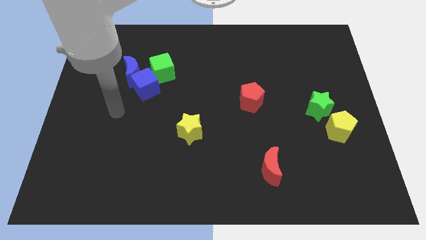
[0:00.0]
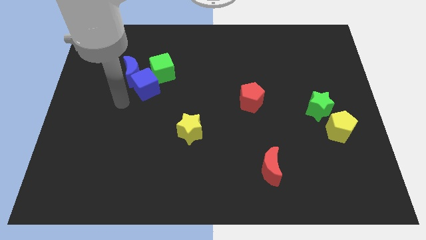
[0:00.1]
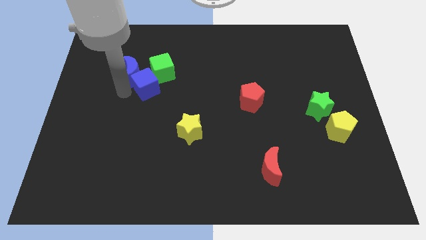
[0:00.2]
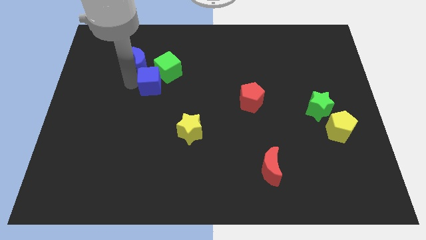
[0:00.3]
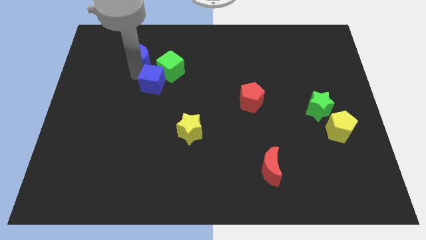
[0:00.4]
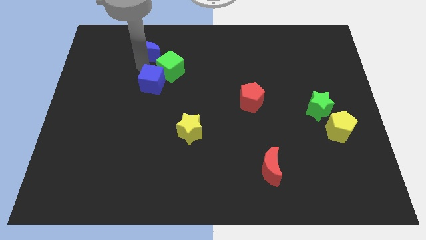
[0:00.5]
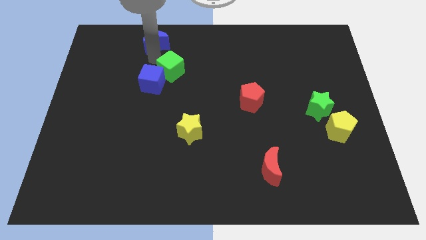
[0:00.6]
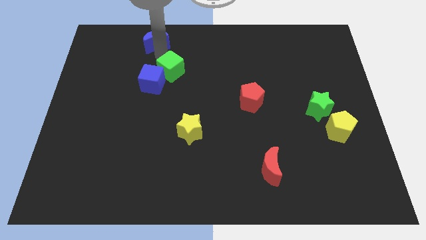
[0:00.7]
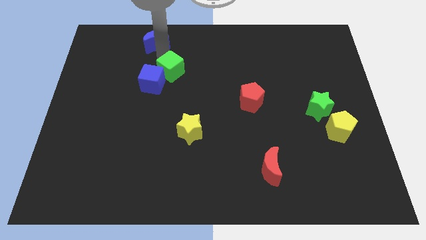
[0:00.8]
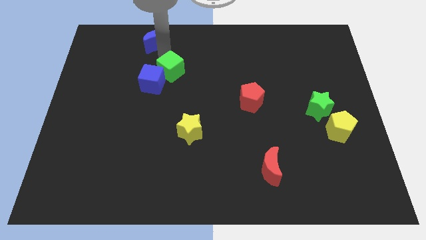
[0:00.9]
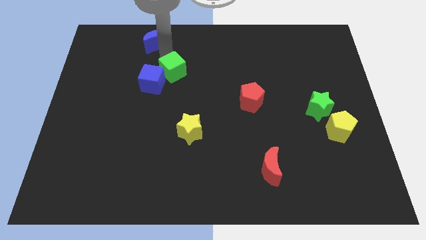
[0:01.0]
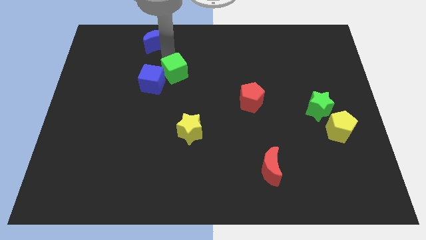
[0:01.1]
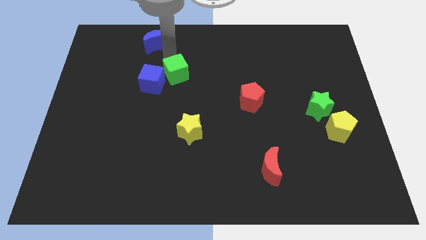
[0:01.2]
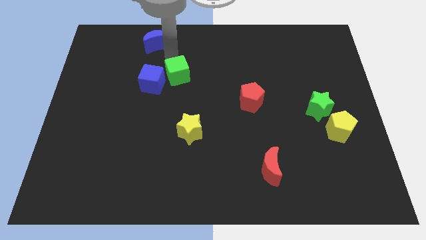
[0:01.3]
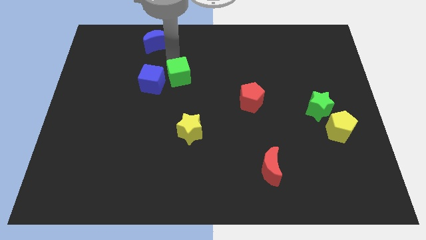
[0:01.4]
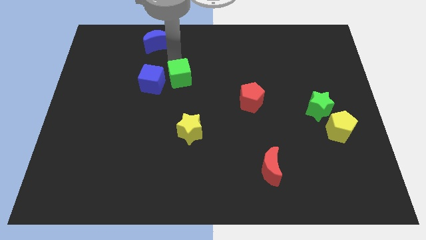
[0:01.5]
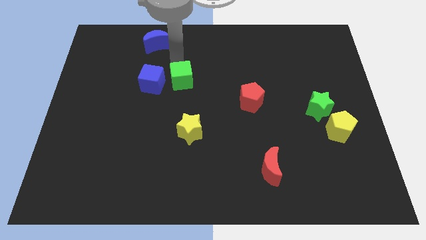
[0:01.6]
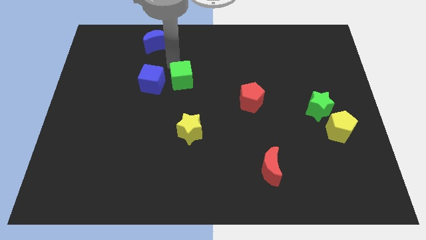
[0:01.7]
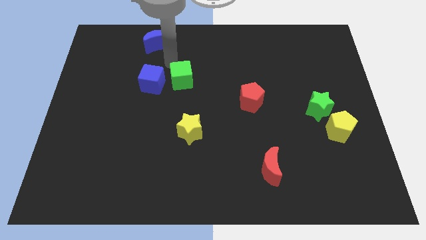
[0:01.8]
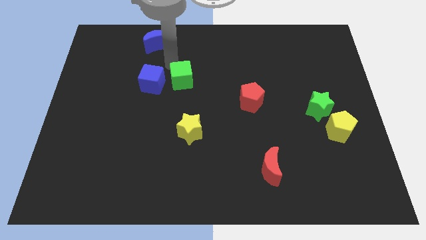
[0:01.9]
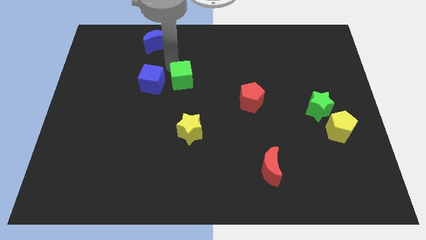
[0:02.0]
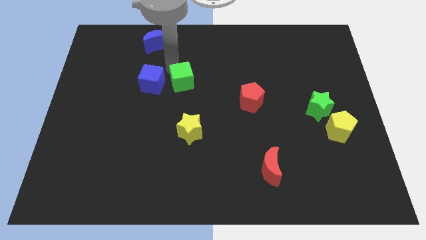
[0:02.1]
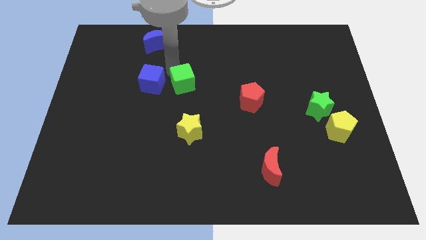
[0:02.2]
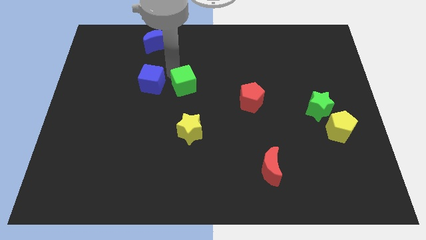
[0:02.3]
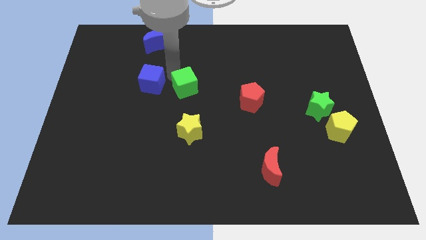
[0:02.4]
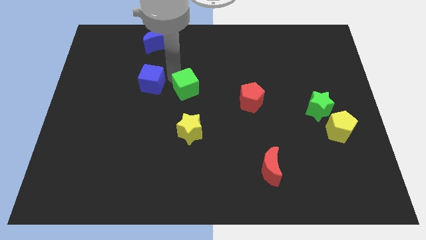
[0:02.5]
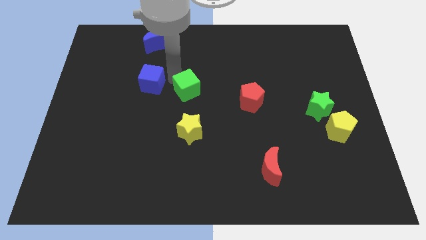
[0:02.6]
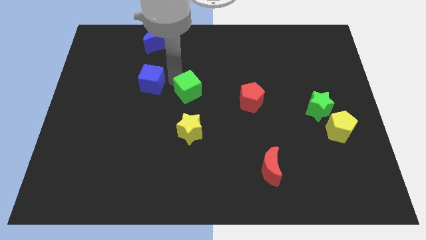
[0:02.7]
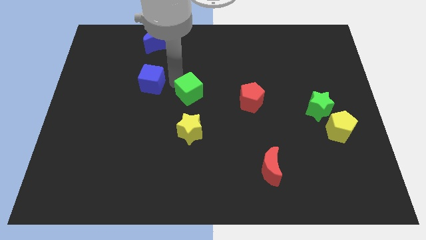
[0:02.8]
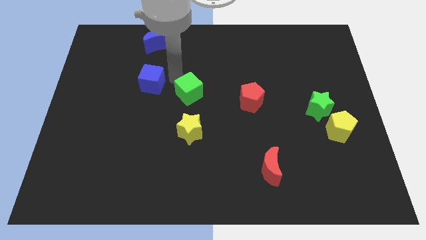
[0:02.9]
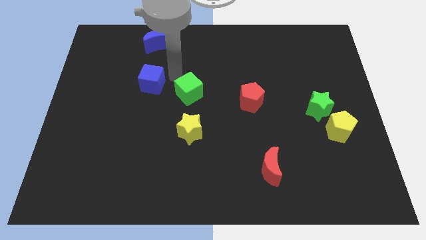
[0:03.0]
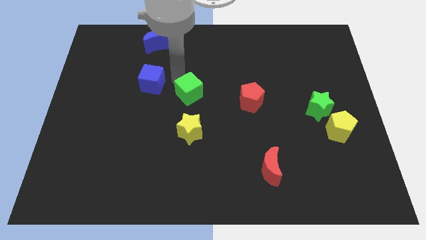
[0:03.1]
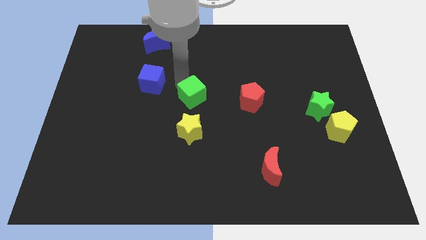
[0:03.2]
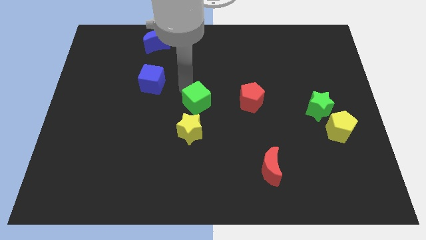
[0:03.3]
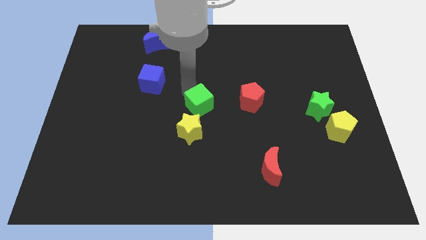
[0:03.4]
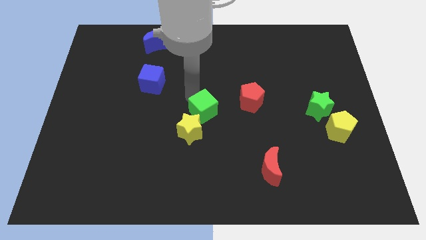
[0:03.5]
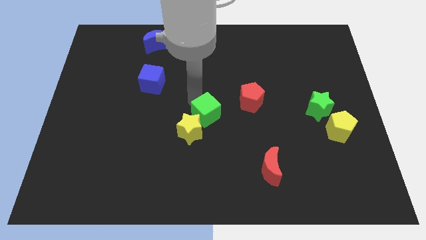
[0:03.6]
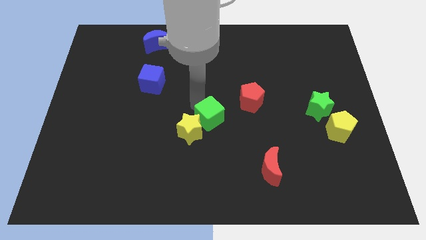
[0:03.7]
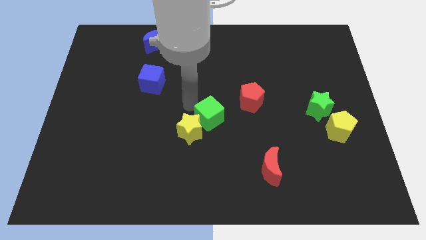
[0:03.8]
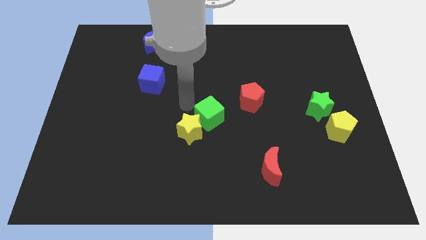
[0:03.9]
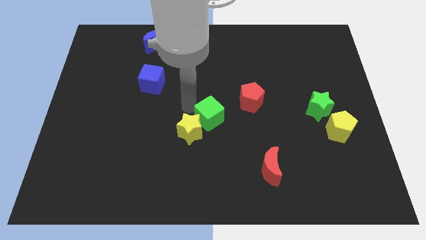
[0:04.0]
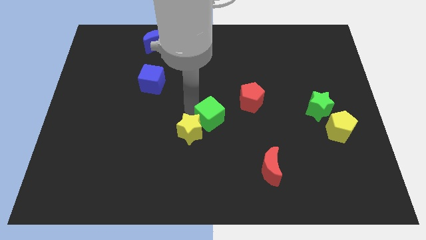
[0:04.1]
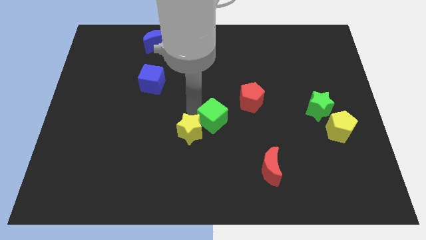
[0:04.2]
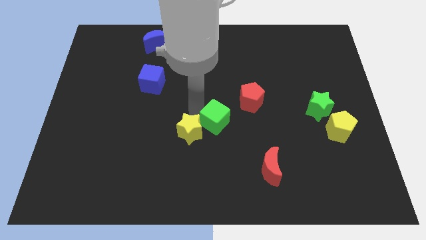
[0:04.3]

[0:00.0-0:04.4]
move the green cube downwards and then right

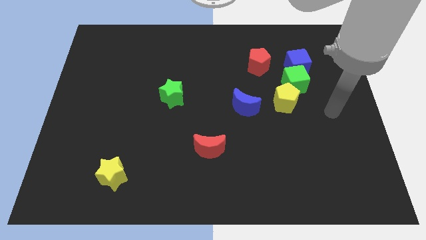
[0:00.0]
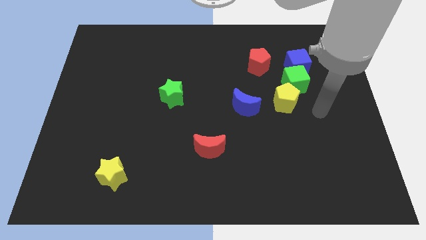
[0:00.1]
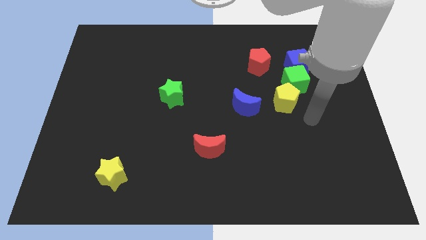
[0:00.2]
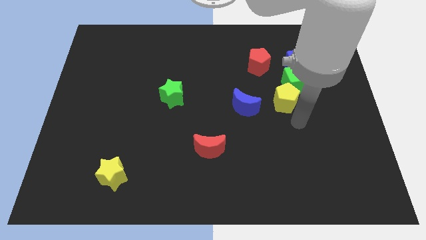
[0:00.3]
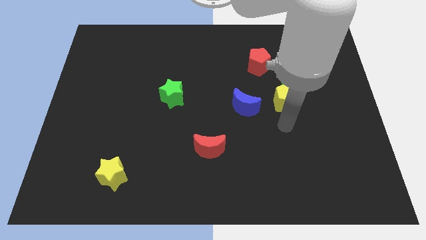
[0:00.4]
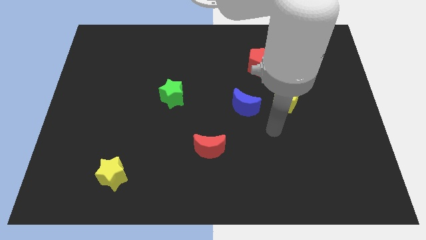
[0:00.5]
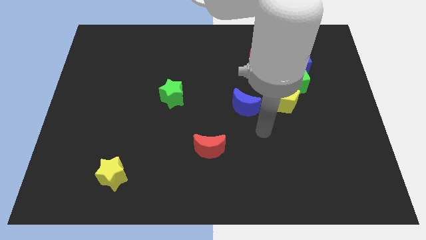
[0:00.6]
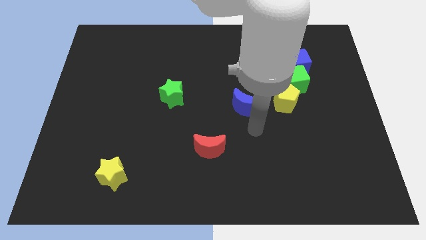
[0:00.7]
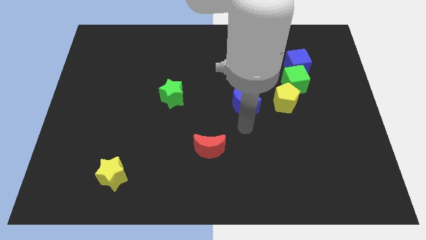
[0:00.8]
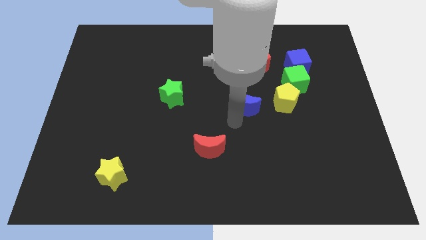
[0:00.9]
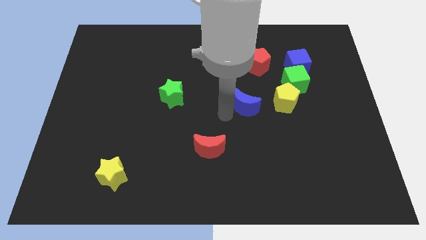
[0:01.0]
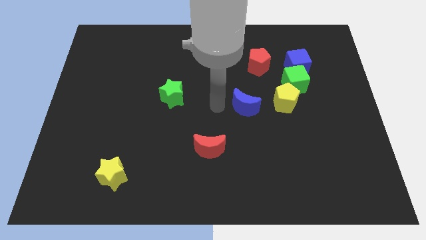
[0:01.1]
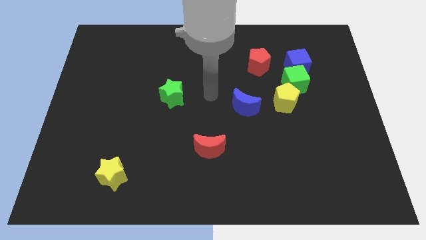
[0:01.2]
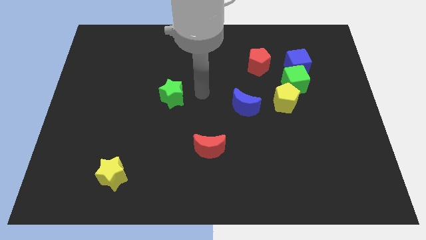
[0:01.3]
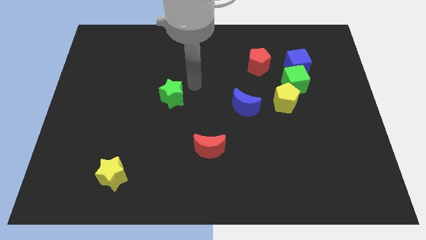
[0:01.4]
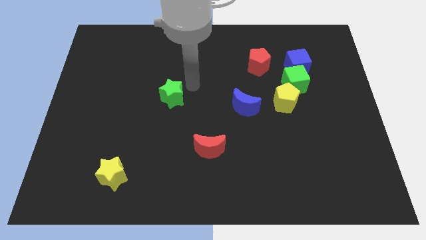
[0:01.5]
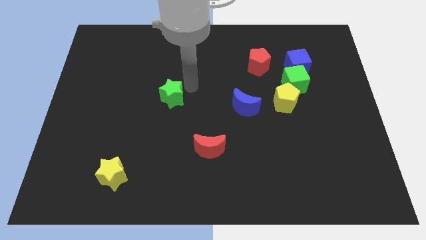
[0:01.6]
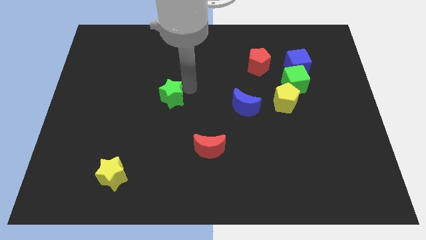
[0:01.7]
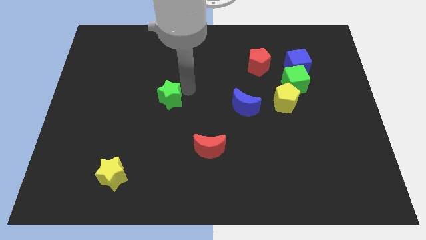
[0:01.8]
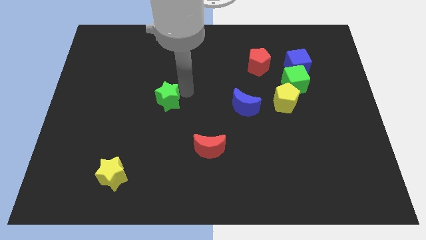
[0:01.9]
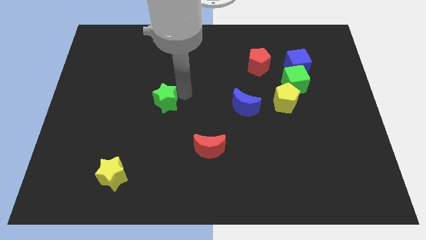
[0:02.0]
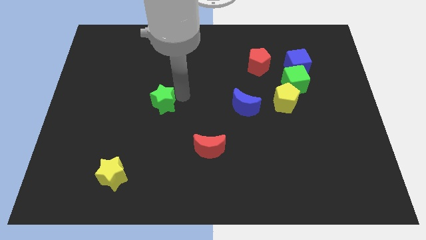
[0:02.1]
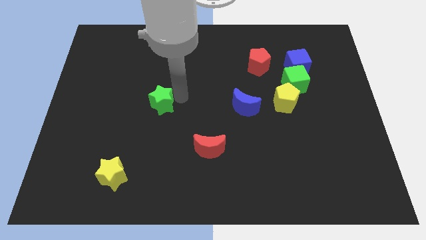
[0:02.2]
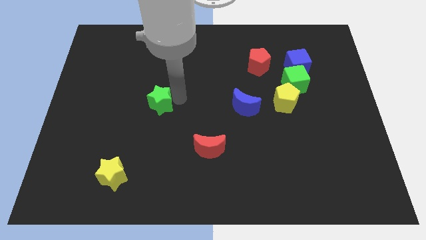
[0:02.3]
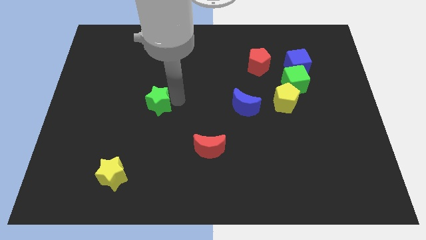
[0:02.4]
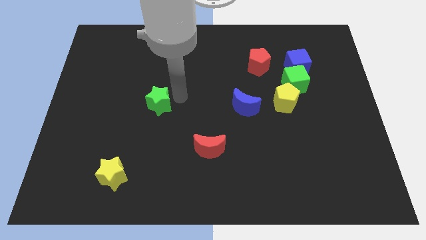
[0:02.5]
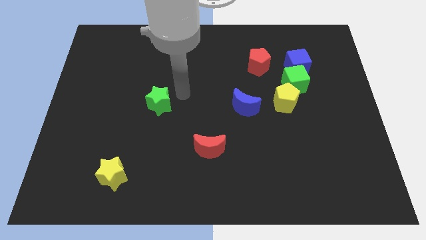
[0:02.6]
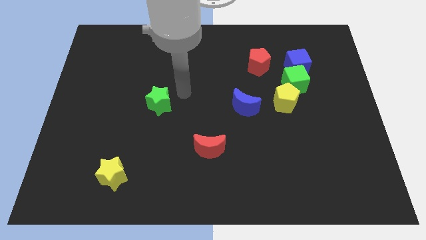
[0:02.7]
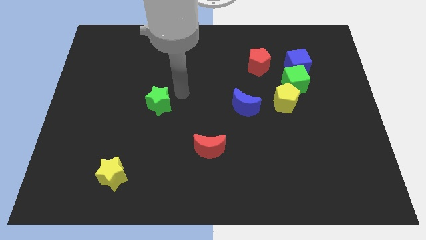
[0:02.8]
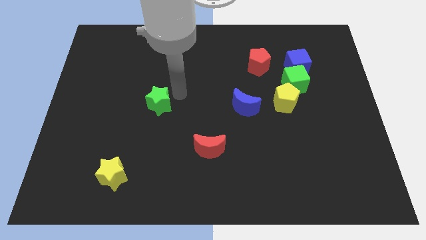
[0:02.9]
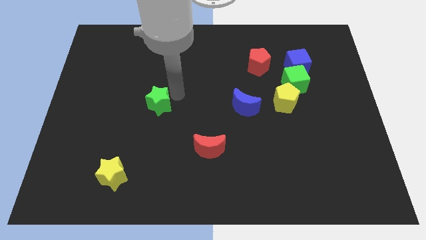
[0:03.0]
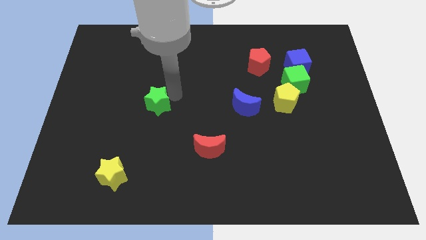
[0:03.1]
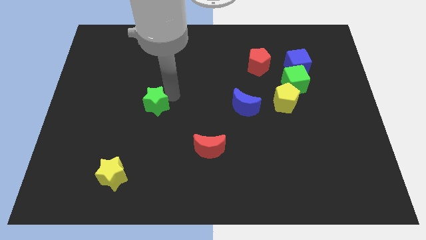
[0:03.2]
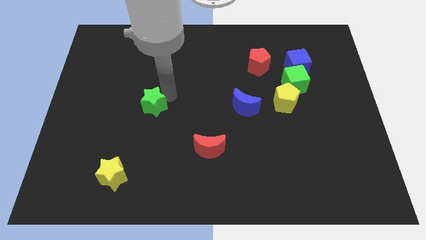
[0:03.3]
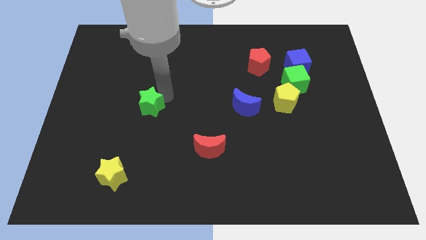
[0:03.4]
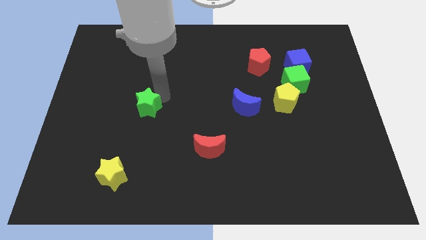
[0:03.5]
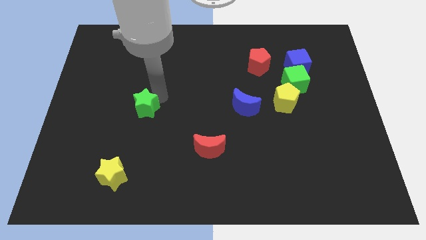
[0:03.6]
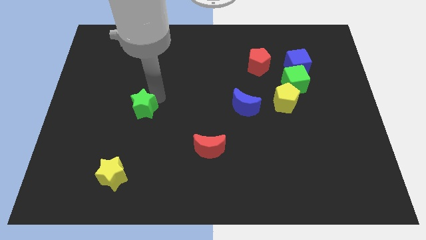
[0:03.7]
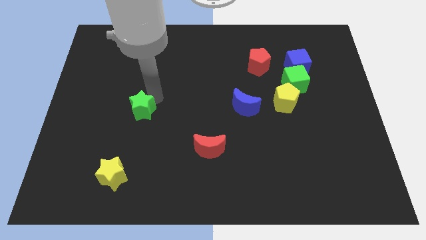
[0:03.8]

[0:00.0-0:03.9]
push the green star a little down and then to the left
